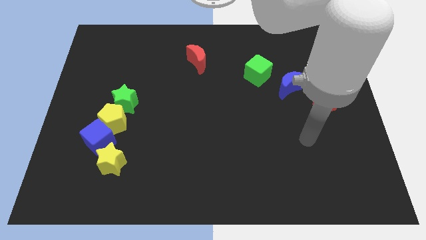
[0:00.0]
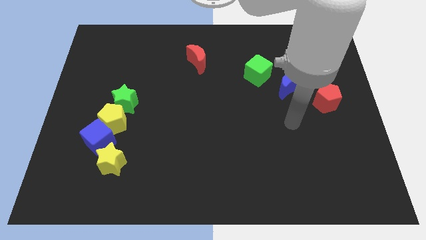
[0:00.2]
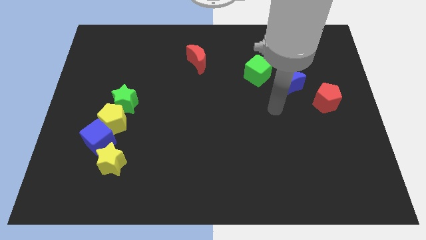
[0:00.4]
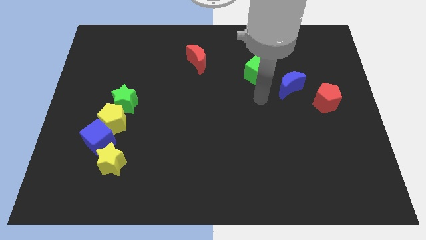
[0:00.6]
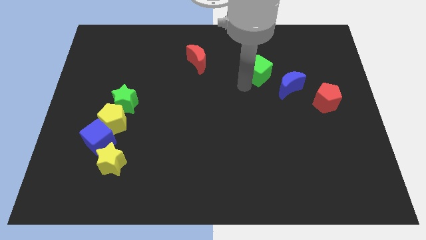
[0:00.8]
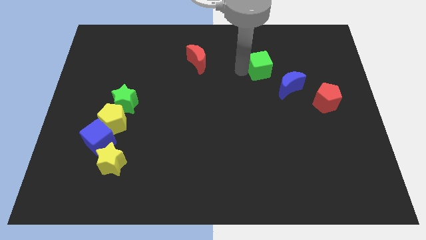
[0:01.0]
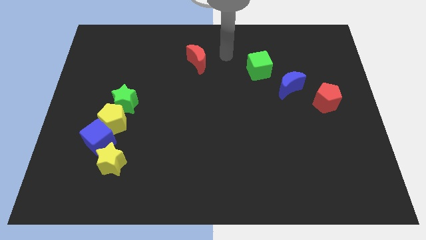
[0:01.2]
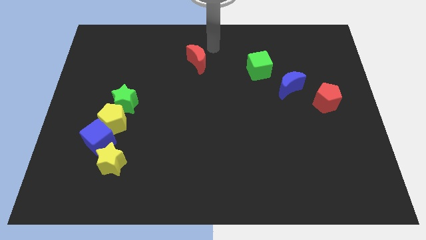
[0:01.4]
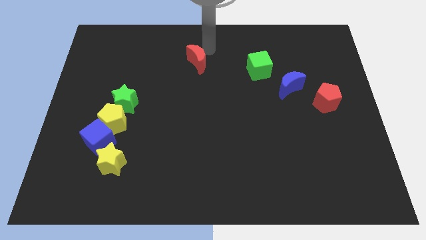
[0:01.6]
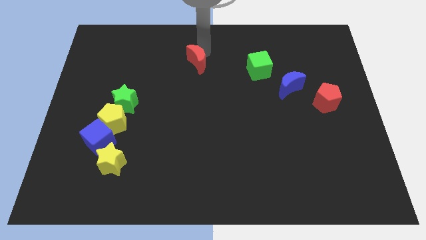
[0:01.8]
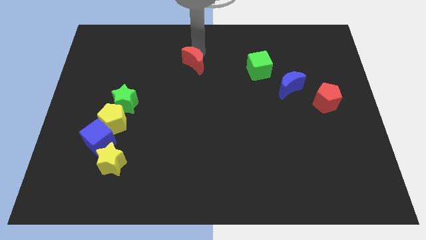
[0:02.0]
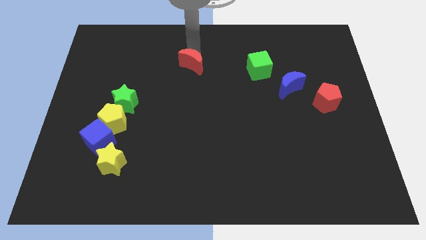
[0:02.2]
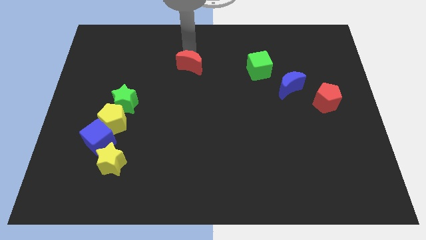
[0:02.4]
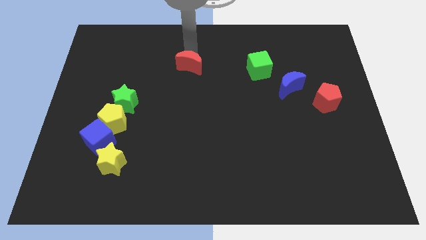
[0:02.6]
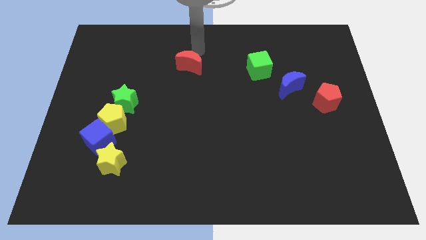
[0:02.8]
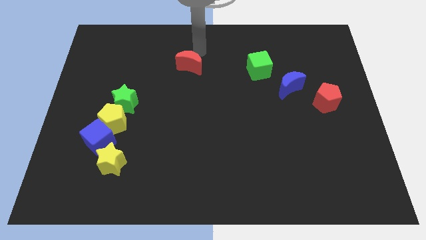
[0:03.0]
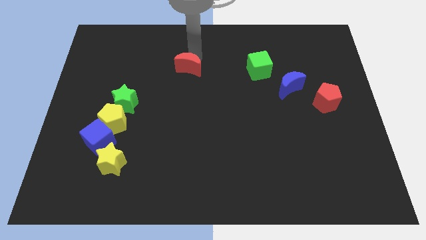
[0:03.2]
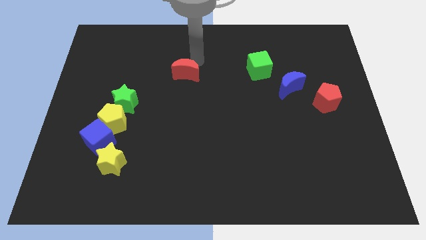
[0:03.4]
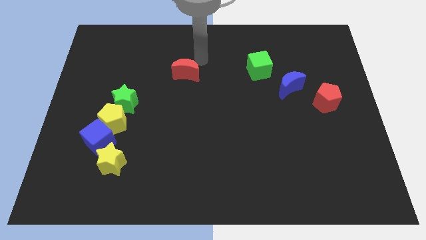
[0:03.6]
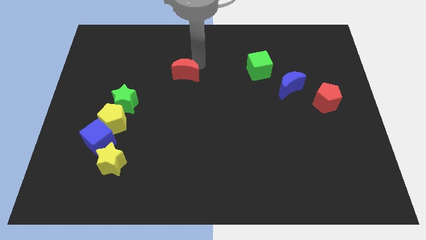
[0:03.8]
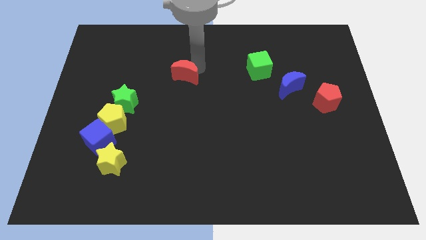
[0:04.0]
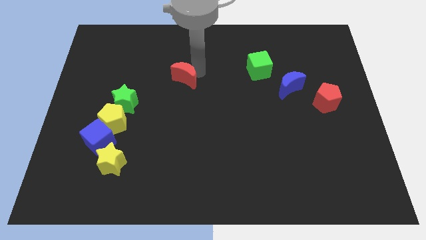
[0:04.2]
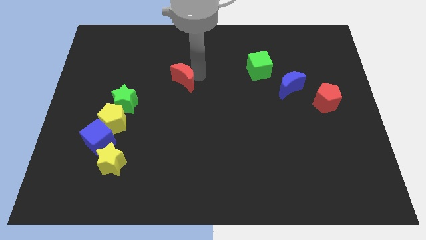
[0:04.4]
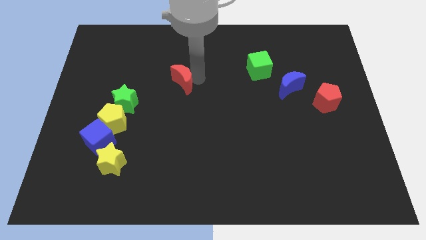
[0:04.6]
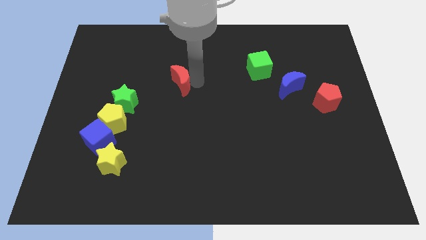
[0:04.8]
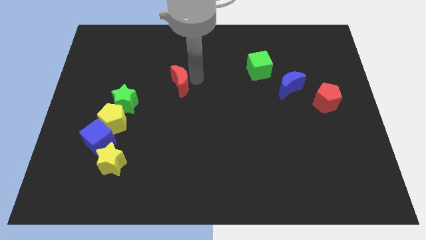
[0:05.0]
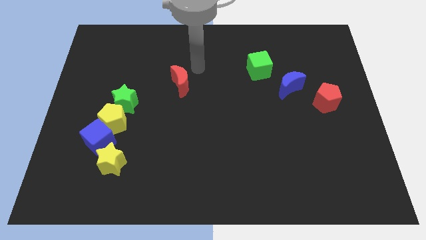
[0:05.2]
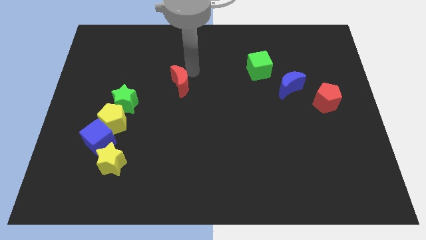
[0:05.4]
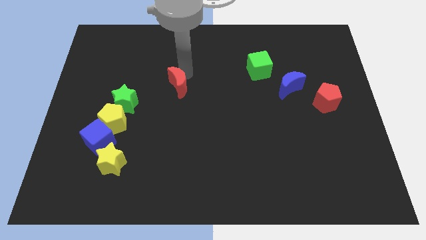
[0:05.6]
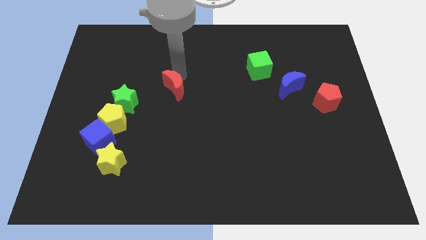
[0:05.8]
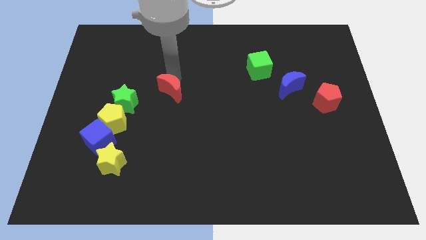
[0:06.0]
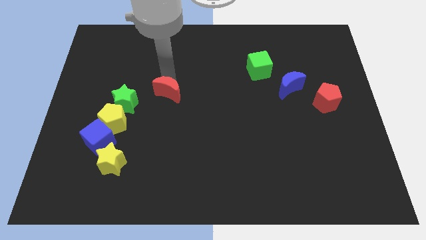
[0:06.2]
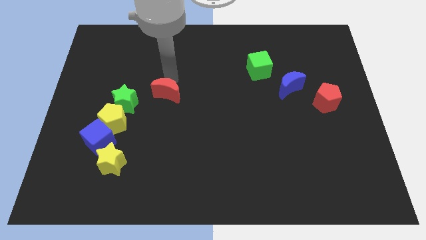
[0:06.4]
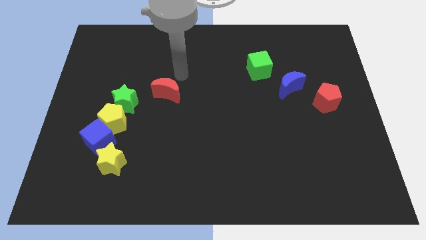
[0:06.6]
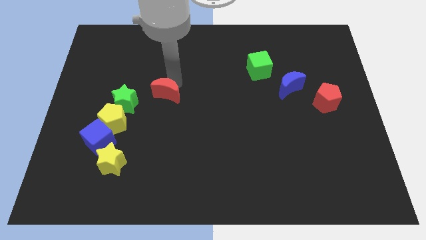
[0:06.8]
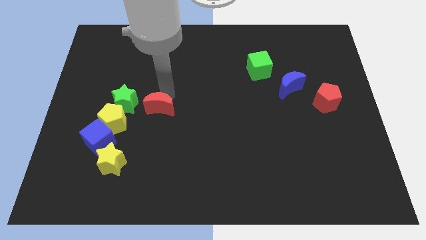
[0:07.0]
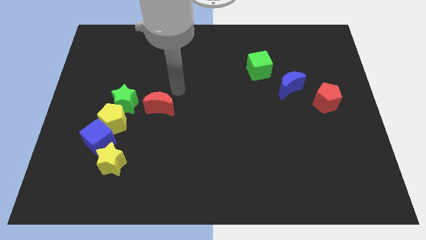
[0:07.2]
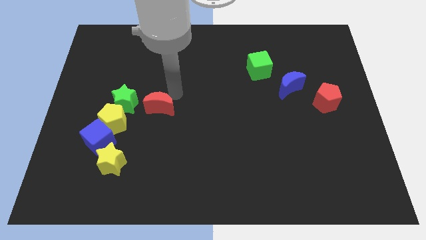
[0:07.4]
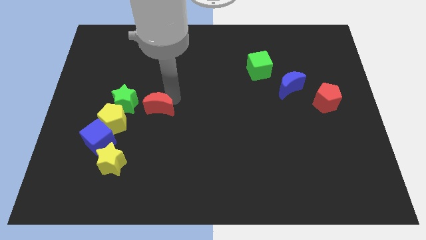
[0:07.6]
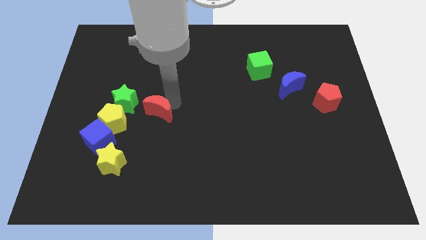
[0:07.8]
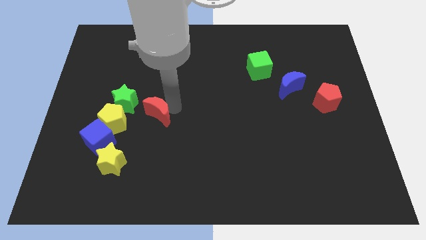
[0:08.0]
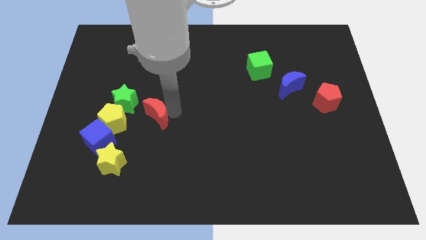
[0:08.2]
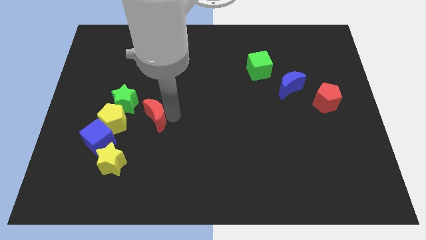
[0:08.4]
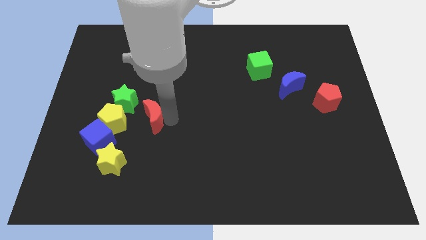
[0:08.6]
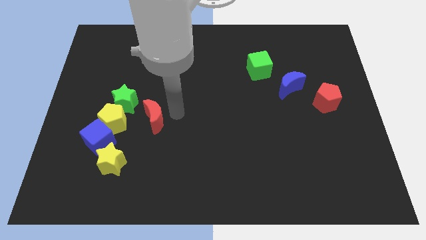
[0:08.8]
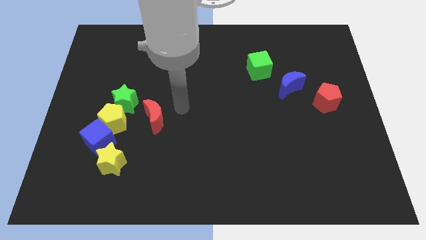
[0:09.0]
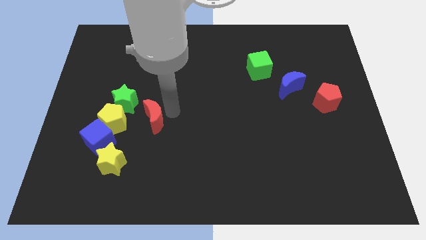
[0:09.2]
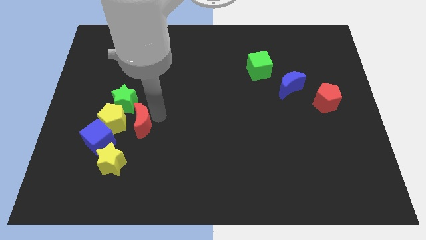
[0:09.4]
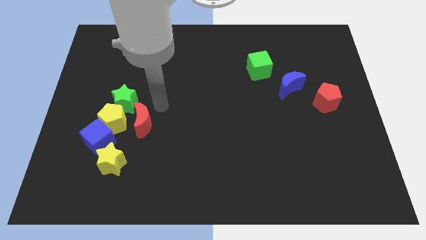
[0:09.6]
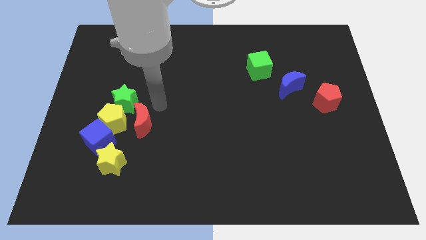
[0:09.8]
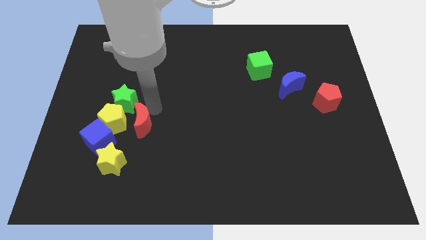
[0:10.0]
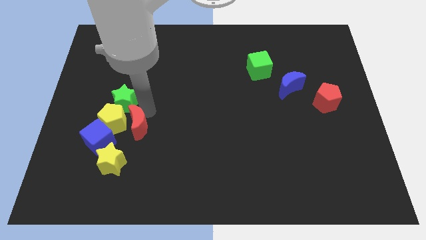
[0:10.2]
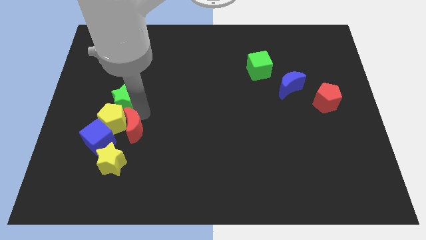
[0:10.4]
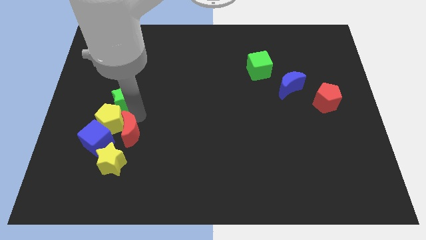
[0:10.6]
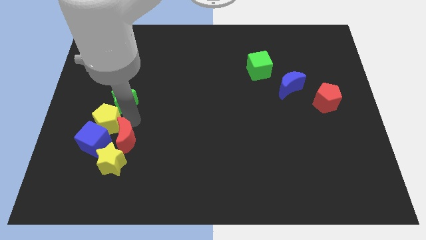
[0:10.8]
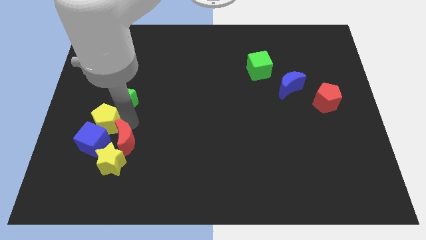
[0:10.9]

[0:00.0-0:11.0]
push the red moon close to the yellow star

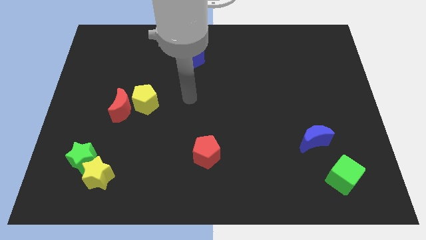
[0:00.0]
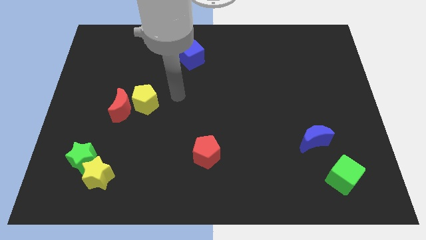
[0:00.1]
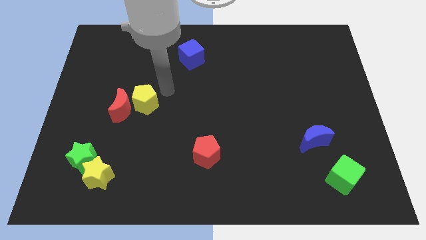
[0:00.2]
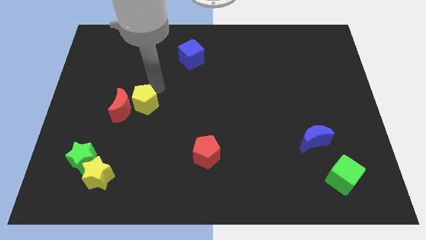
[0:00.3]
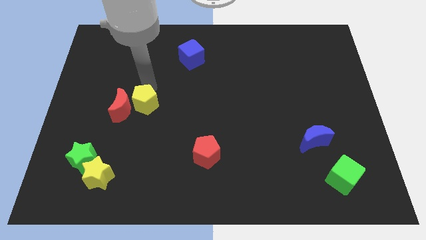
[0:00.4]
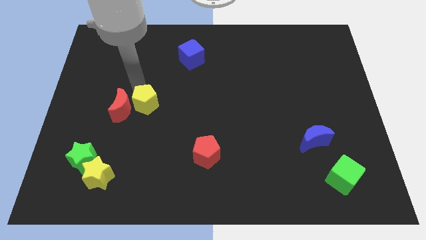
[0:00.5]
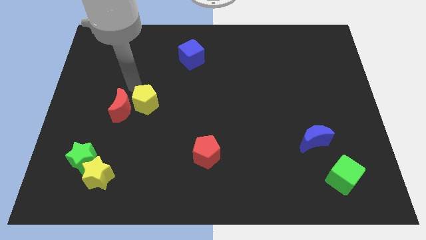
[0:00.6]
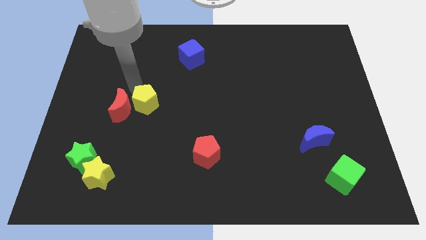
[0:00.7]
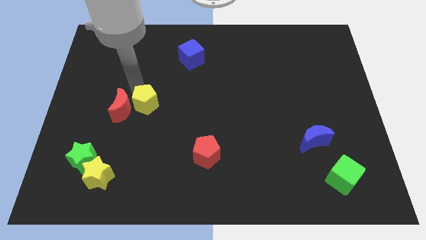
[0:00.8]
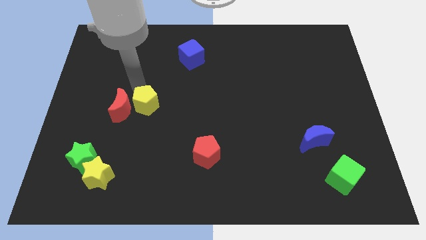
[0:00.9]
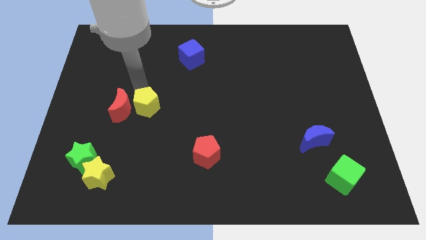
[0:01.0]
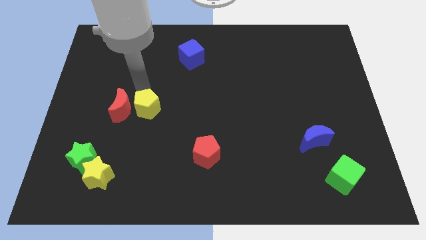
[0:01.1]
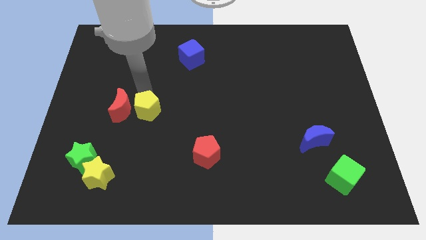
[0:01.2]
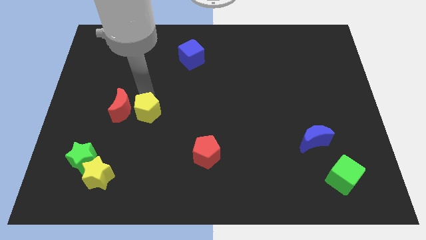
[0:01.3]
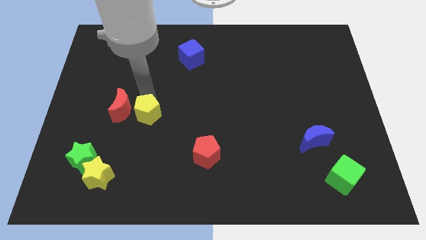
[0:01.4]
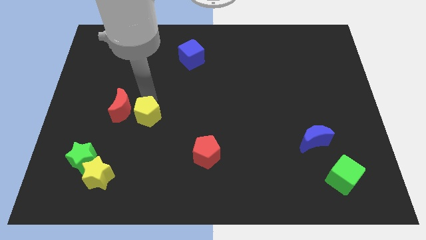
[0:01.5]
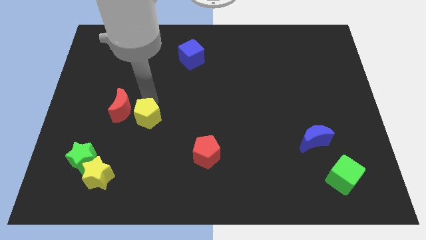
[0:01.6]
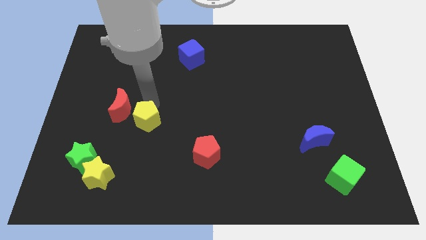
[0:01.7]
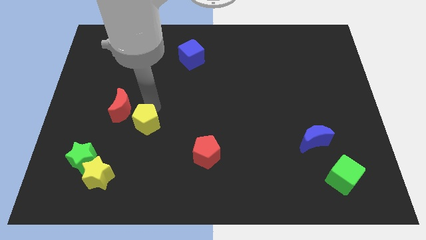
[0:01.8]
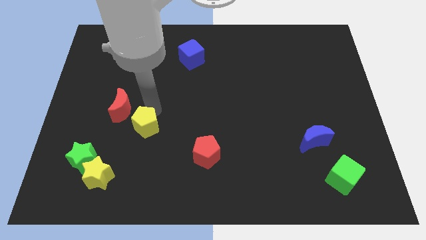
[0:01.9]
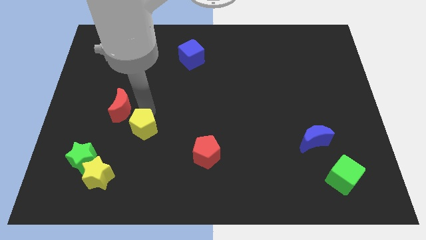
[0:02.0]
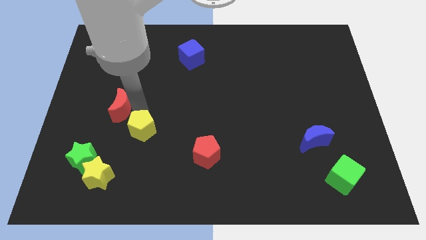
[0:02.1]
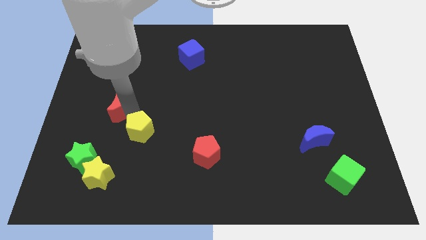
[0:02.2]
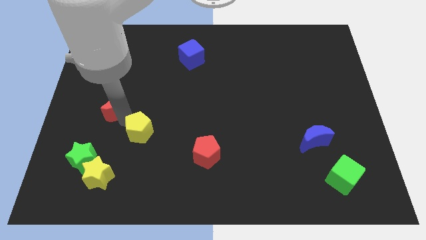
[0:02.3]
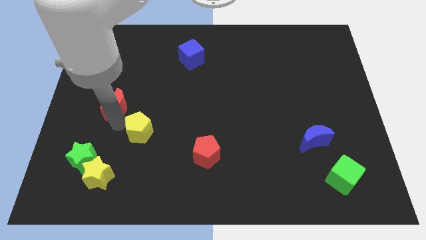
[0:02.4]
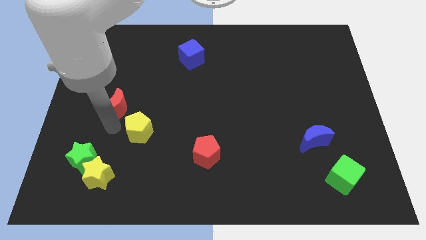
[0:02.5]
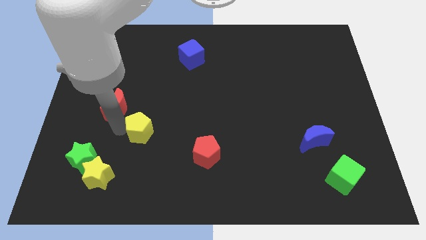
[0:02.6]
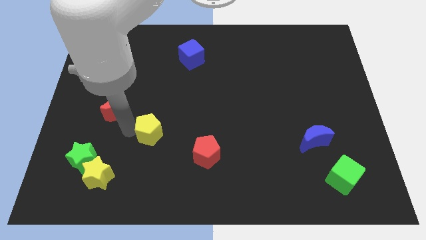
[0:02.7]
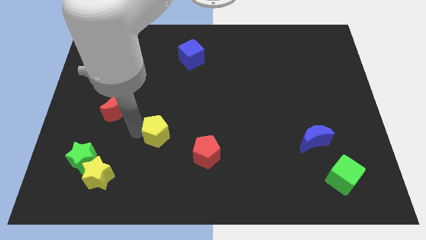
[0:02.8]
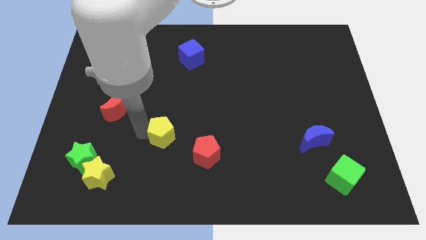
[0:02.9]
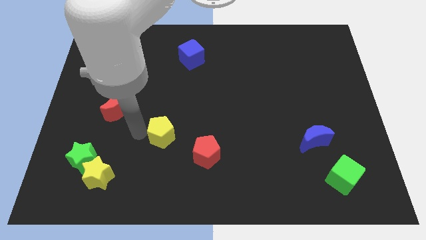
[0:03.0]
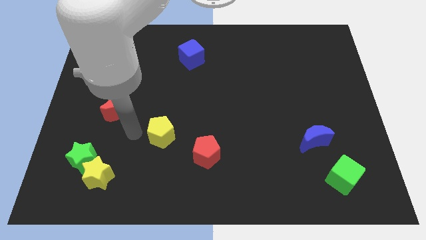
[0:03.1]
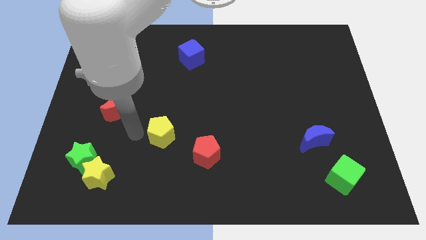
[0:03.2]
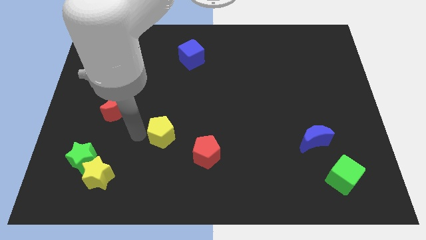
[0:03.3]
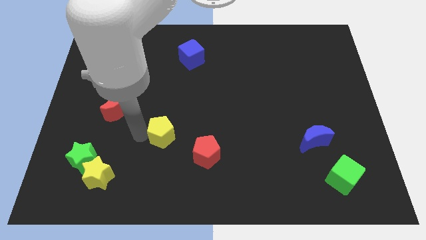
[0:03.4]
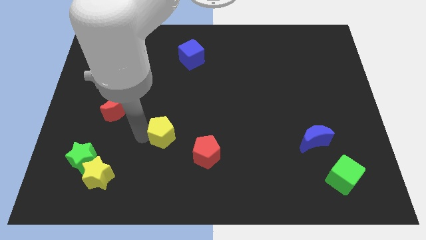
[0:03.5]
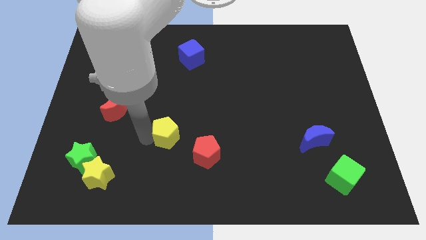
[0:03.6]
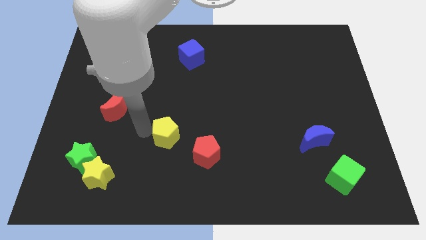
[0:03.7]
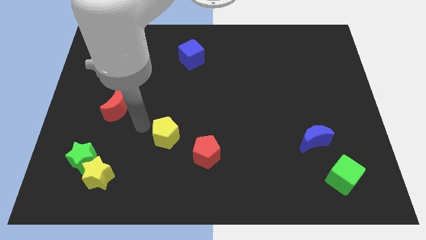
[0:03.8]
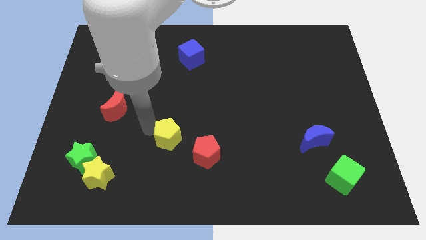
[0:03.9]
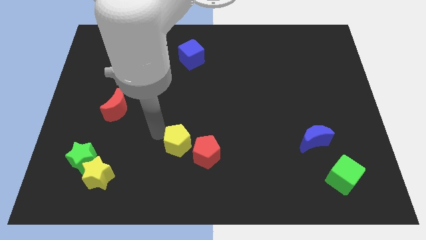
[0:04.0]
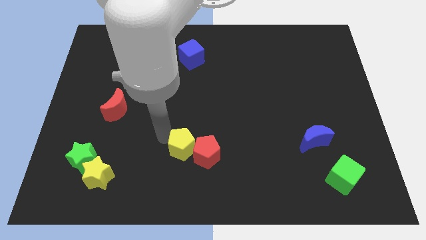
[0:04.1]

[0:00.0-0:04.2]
push the yellow pentagon to the red pentagon
